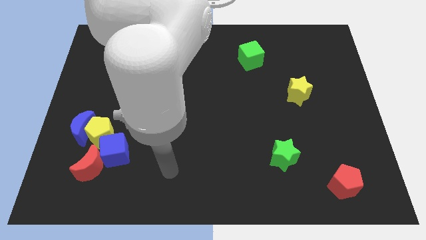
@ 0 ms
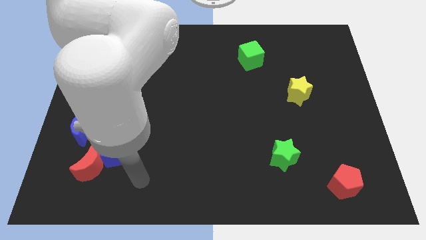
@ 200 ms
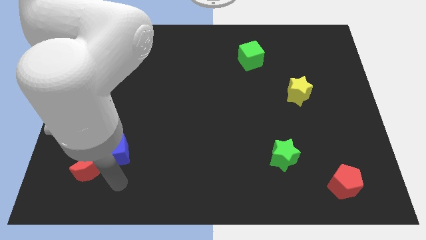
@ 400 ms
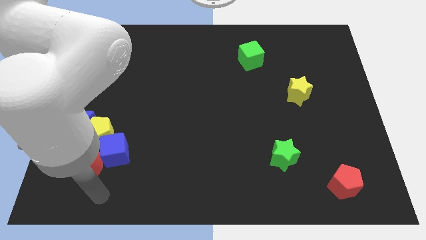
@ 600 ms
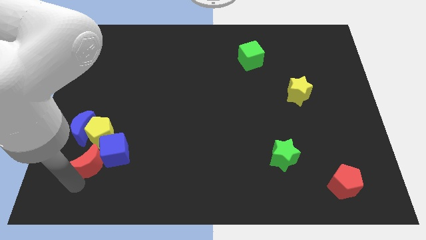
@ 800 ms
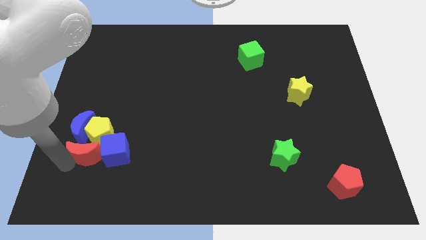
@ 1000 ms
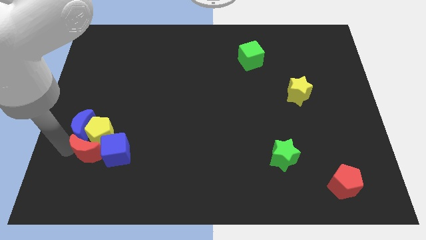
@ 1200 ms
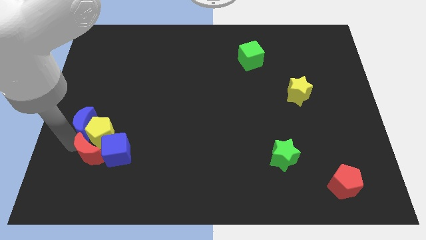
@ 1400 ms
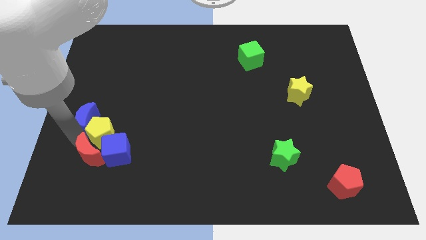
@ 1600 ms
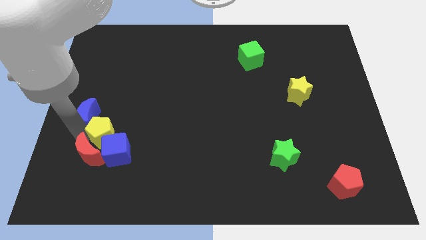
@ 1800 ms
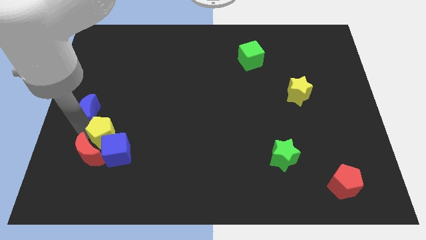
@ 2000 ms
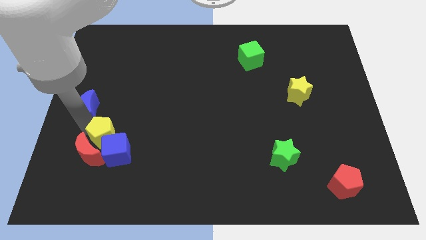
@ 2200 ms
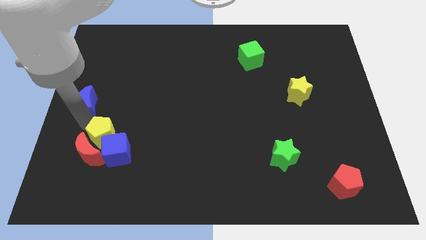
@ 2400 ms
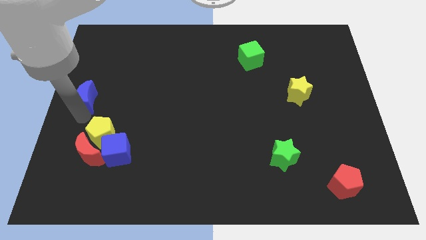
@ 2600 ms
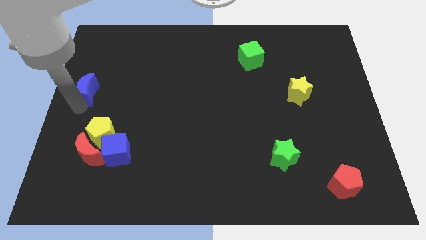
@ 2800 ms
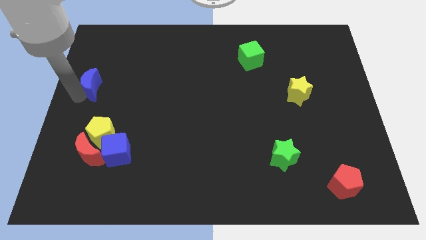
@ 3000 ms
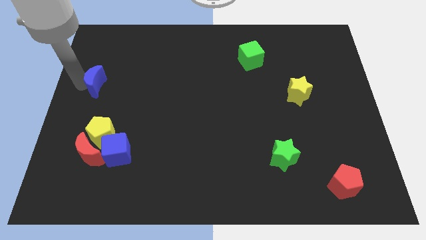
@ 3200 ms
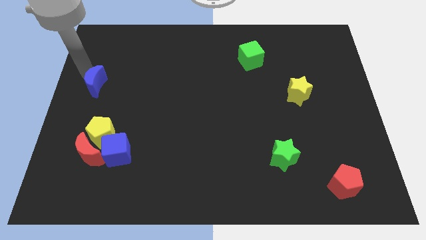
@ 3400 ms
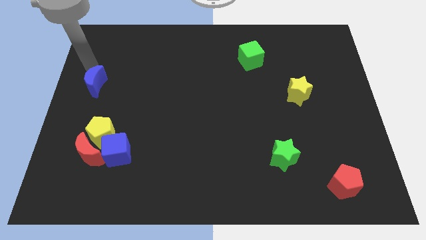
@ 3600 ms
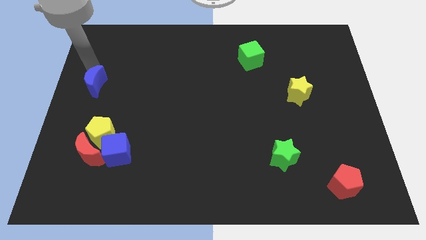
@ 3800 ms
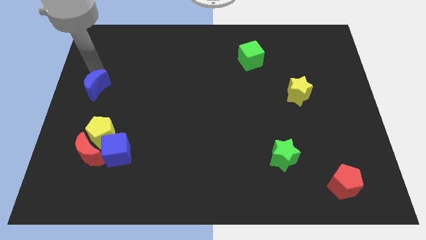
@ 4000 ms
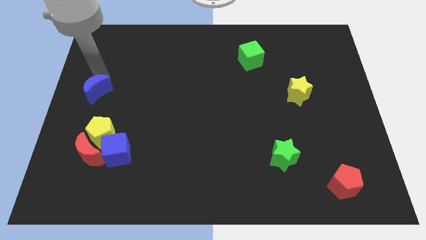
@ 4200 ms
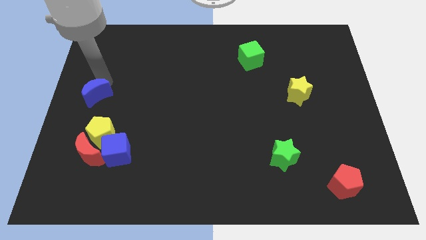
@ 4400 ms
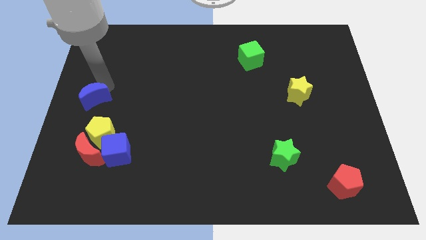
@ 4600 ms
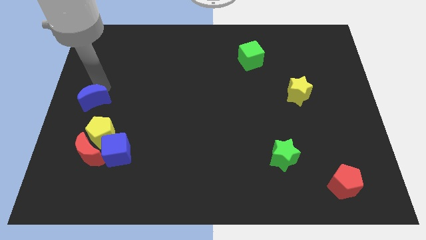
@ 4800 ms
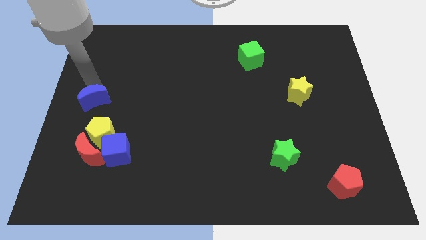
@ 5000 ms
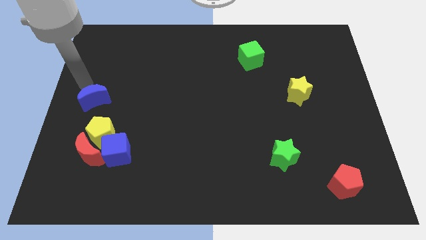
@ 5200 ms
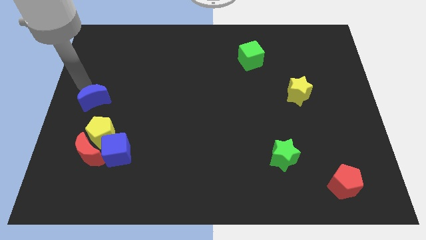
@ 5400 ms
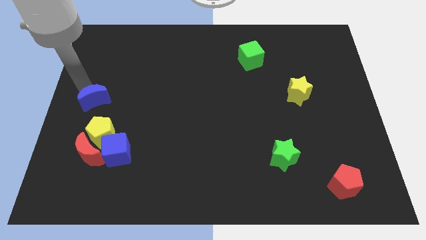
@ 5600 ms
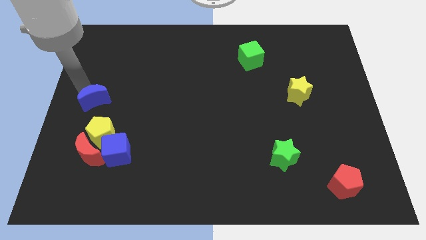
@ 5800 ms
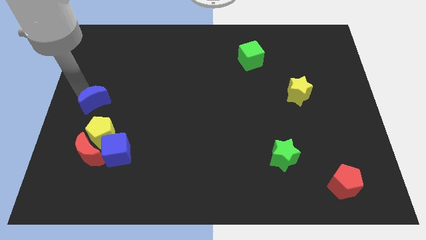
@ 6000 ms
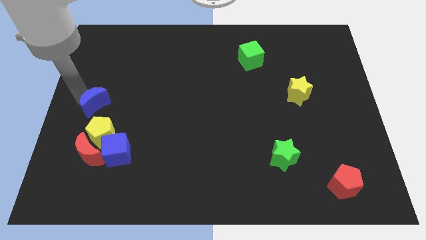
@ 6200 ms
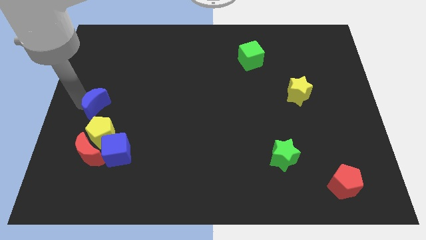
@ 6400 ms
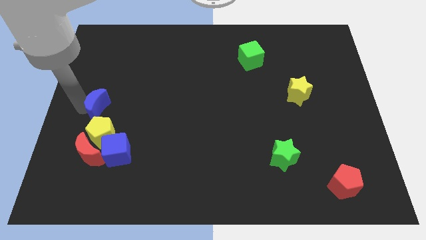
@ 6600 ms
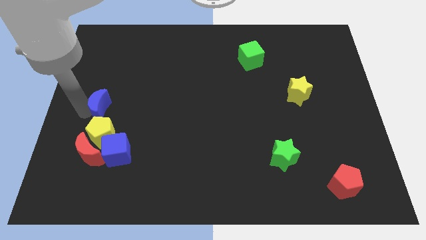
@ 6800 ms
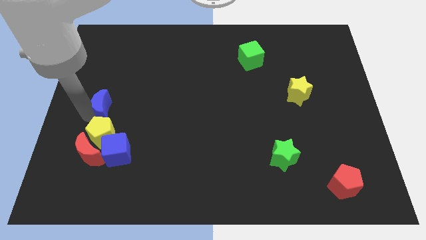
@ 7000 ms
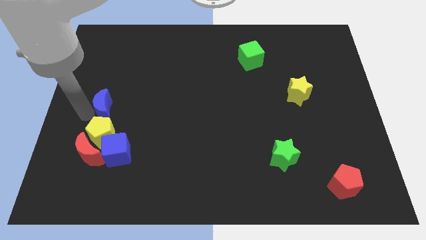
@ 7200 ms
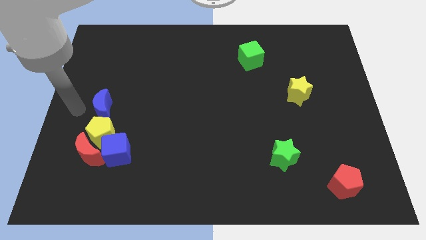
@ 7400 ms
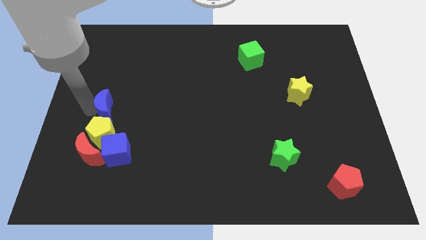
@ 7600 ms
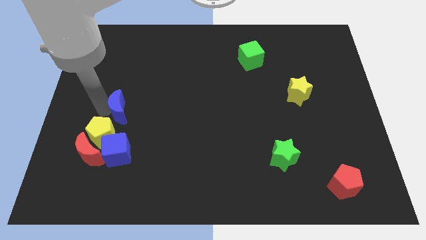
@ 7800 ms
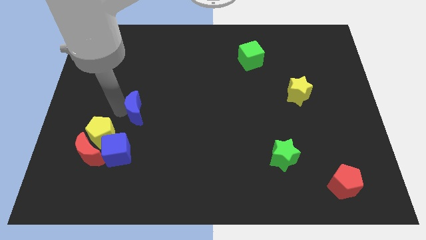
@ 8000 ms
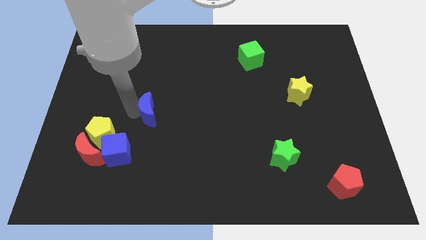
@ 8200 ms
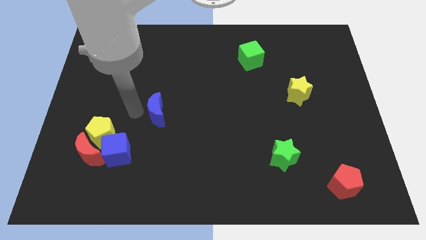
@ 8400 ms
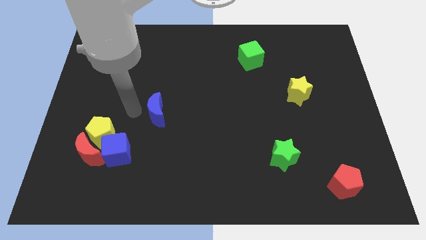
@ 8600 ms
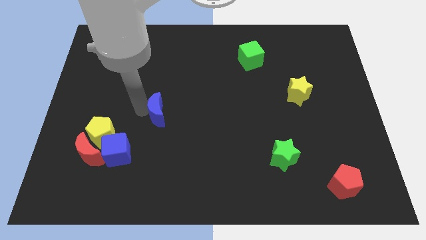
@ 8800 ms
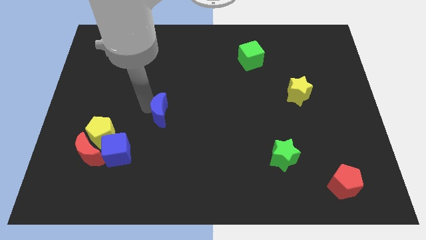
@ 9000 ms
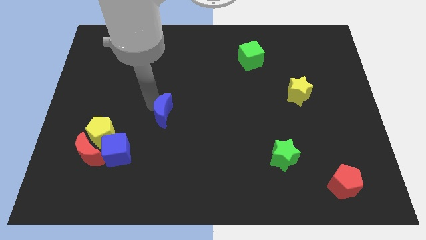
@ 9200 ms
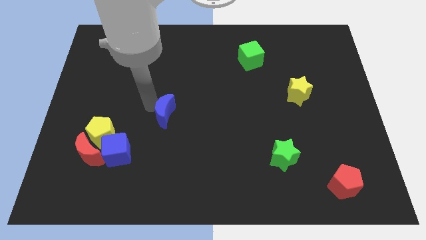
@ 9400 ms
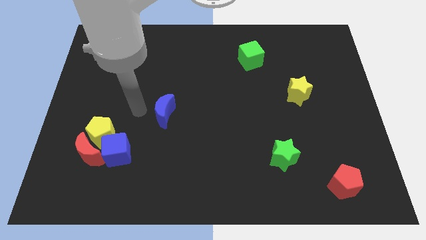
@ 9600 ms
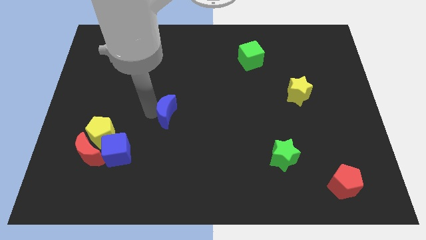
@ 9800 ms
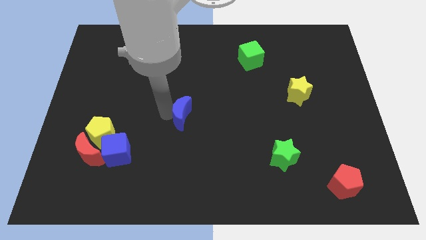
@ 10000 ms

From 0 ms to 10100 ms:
slide the blue moon right

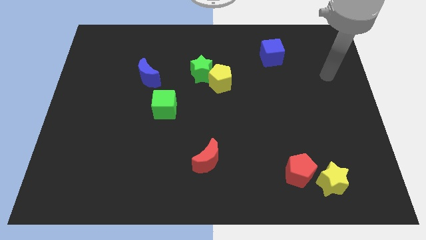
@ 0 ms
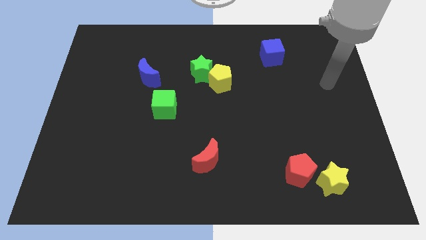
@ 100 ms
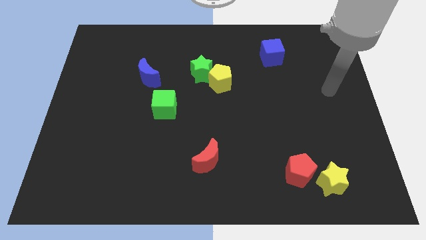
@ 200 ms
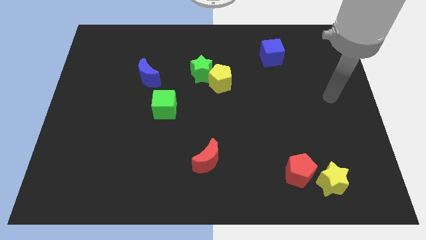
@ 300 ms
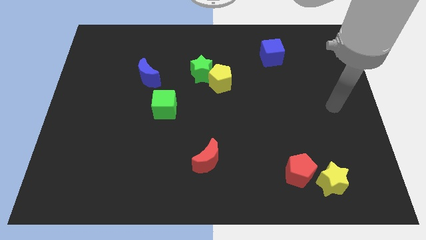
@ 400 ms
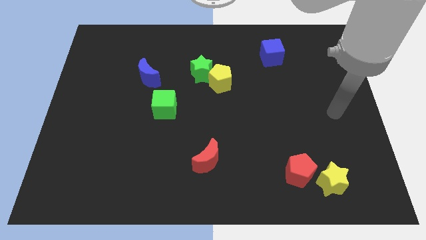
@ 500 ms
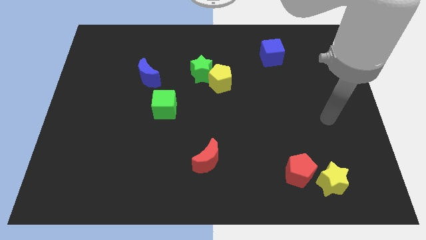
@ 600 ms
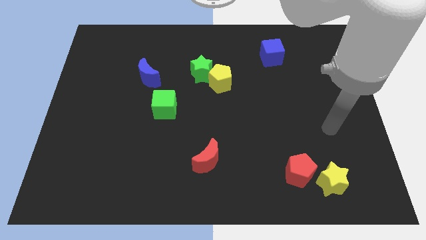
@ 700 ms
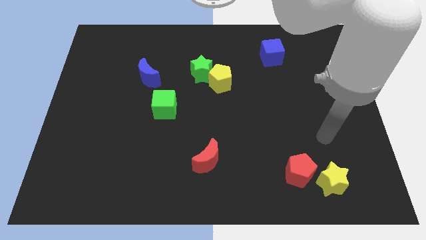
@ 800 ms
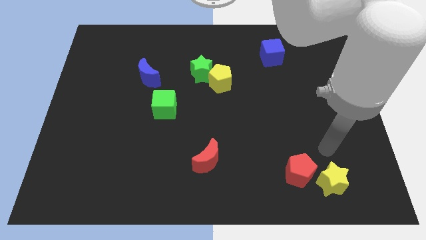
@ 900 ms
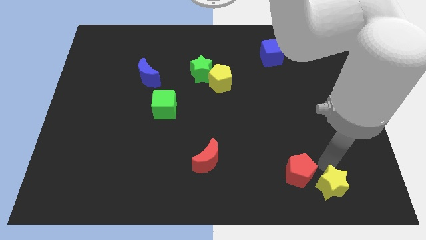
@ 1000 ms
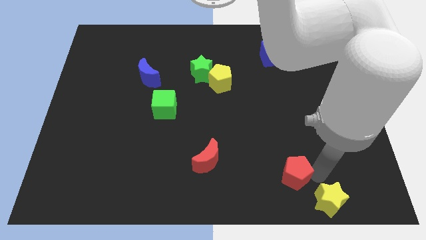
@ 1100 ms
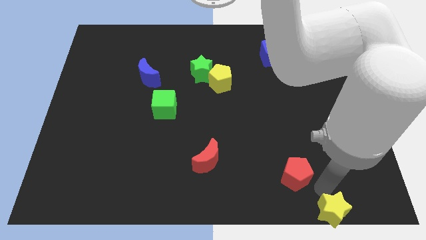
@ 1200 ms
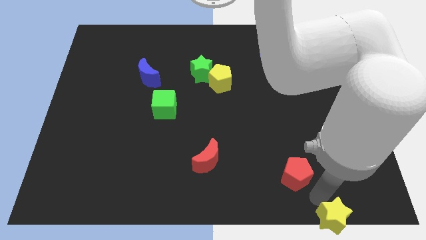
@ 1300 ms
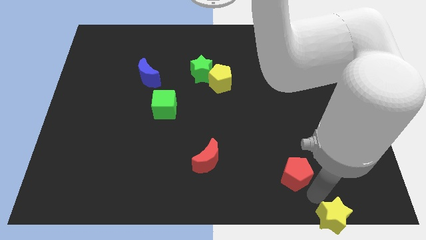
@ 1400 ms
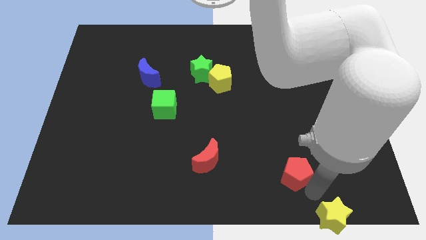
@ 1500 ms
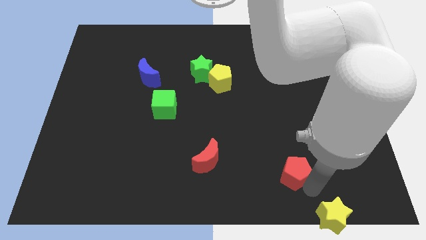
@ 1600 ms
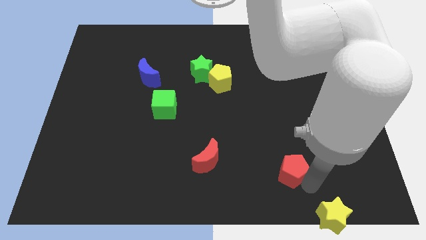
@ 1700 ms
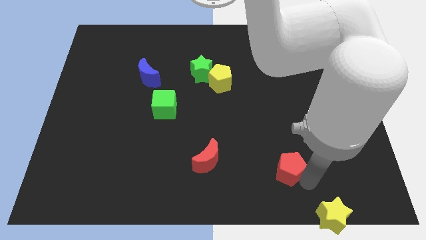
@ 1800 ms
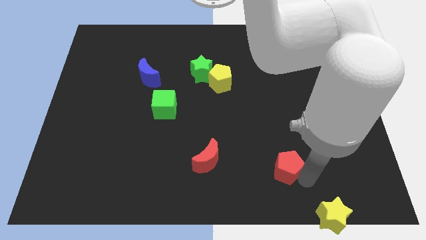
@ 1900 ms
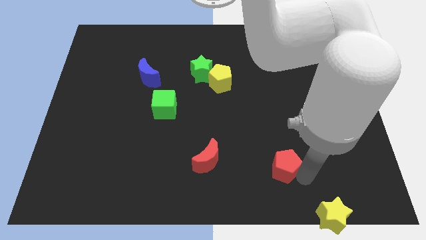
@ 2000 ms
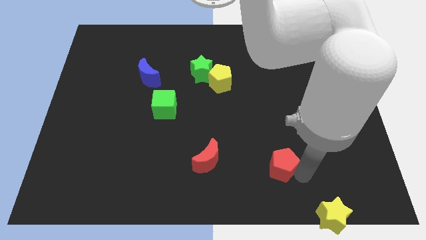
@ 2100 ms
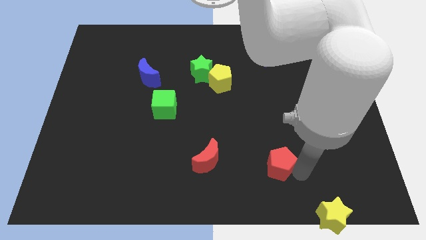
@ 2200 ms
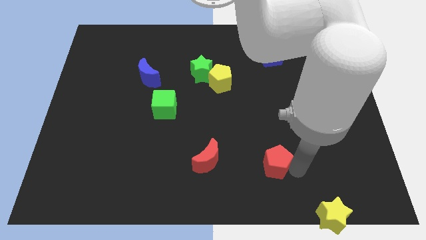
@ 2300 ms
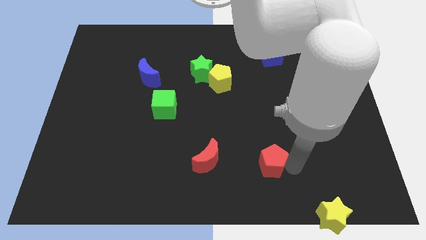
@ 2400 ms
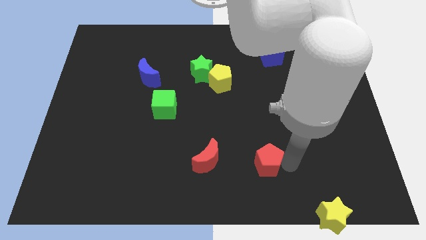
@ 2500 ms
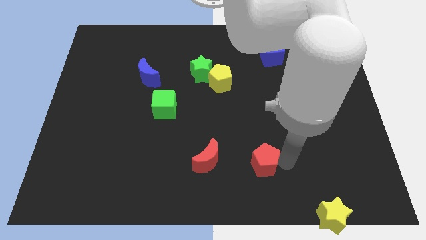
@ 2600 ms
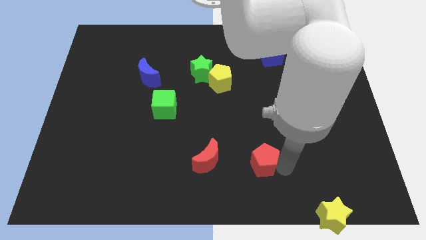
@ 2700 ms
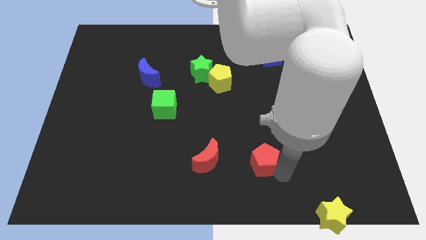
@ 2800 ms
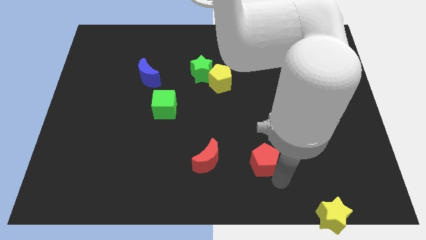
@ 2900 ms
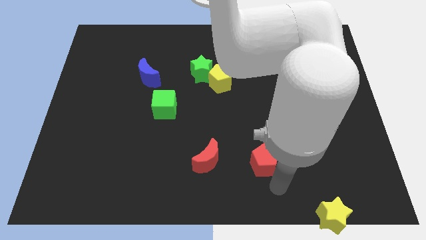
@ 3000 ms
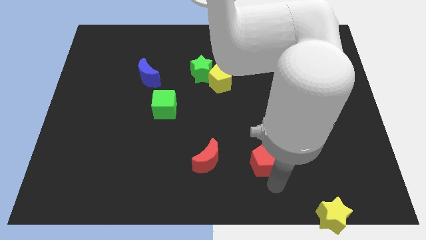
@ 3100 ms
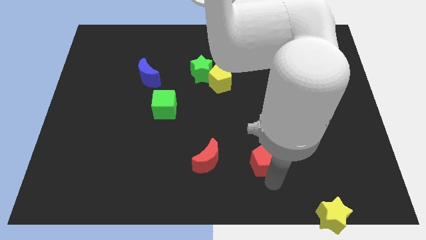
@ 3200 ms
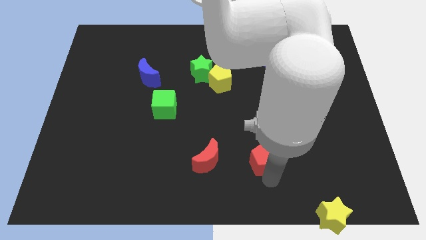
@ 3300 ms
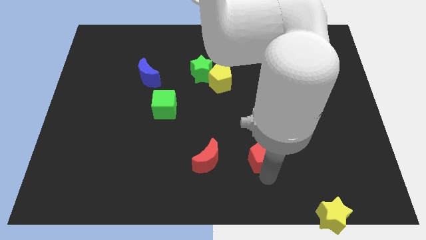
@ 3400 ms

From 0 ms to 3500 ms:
push the red pentagon a little up and left diagonally
